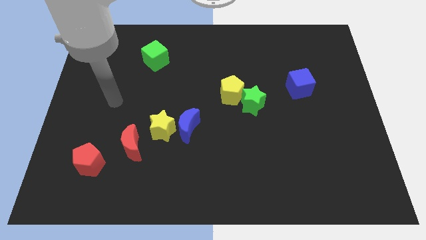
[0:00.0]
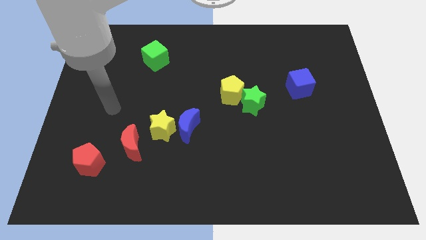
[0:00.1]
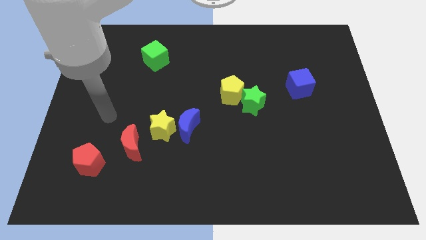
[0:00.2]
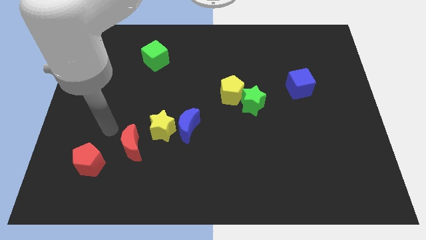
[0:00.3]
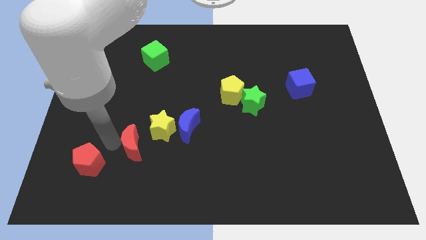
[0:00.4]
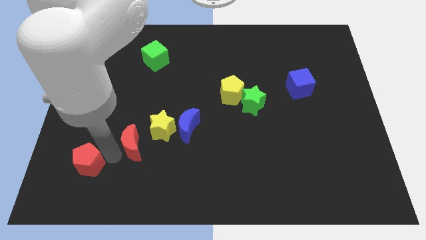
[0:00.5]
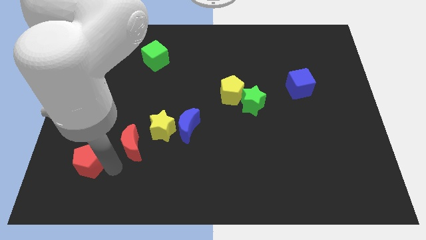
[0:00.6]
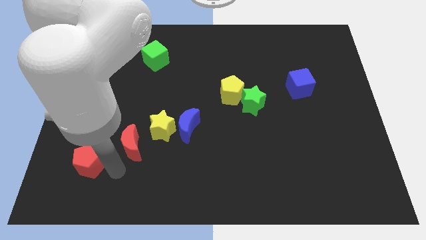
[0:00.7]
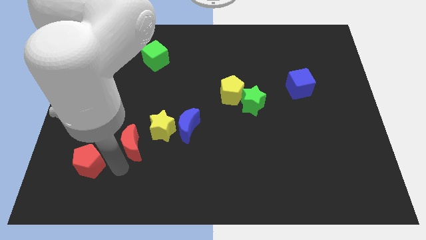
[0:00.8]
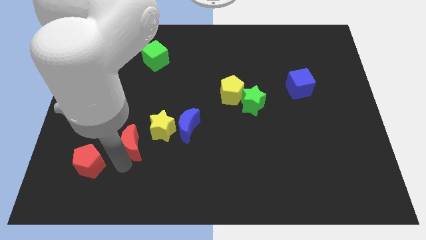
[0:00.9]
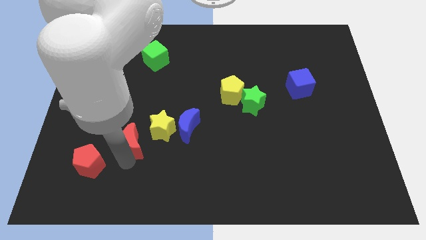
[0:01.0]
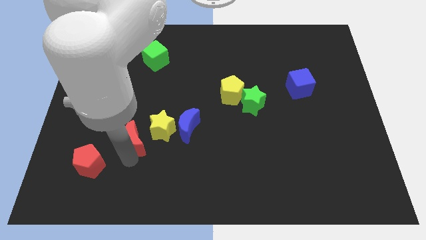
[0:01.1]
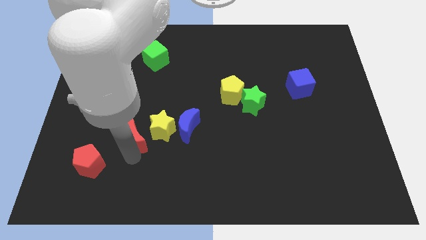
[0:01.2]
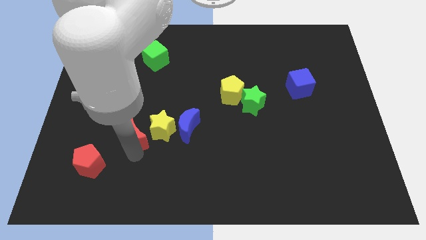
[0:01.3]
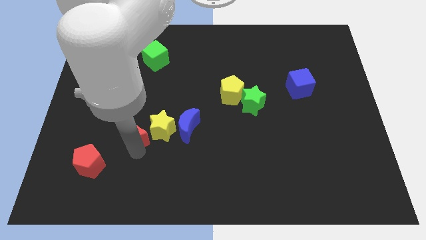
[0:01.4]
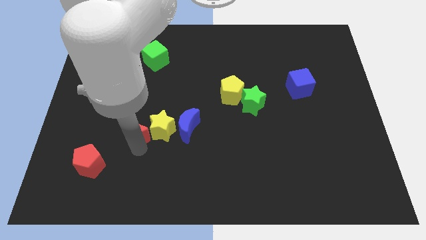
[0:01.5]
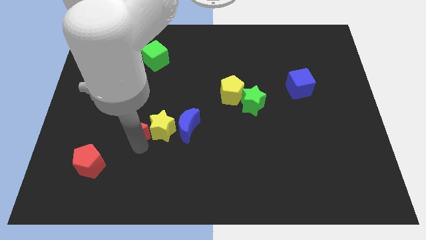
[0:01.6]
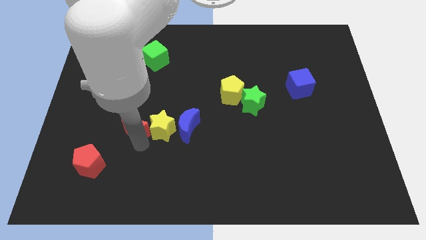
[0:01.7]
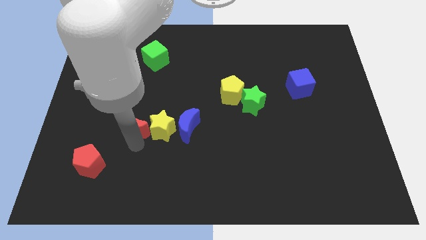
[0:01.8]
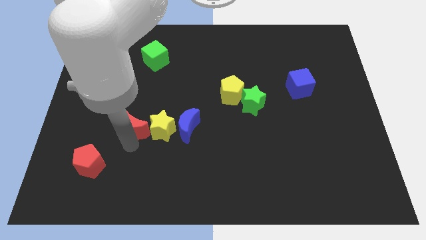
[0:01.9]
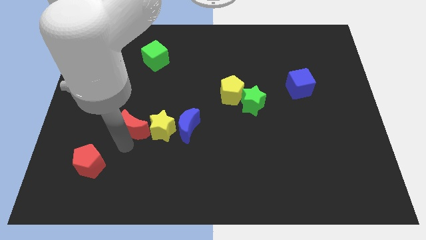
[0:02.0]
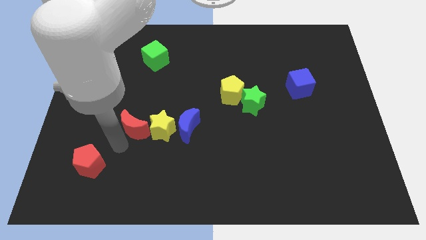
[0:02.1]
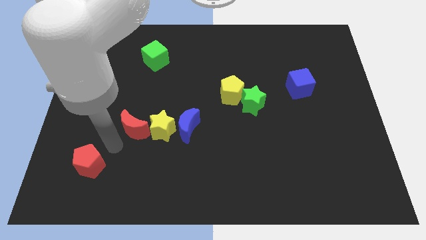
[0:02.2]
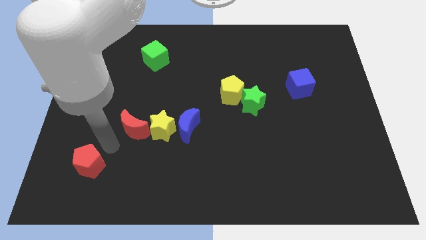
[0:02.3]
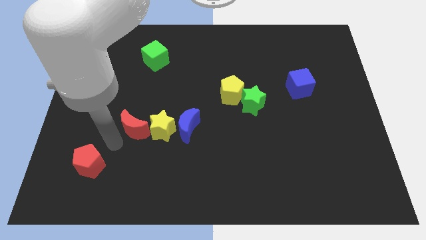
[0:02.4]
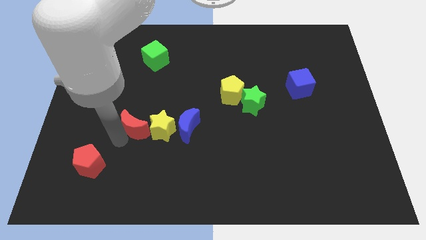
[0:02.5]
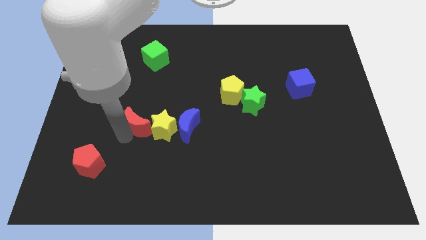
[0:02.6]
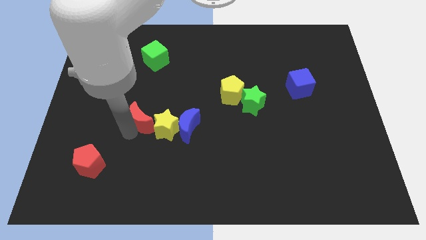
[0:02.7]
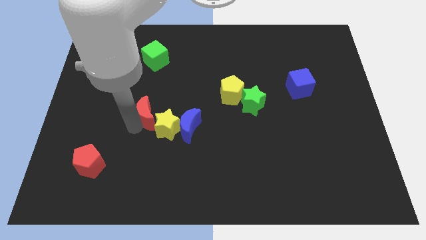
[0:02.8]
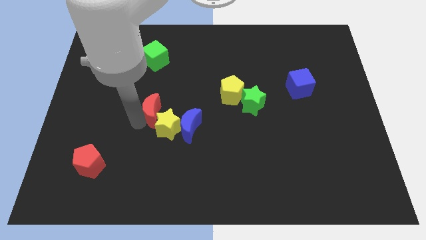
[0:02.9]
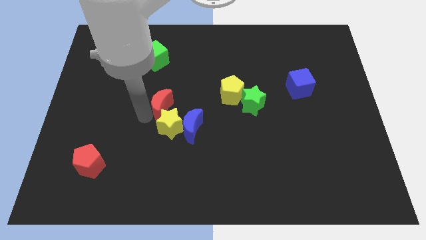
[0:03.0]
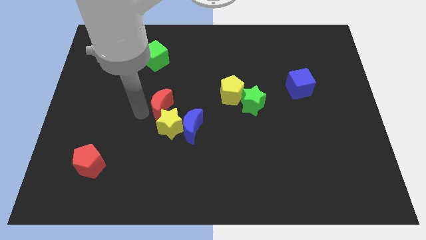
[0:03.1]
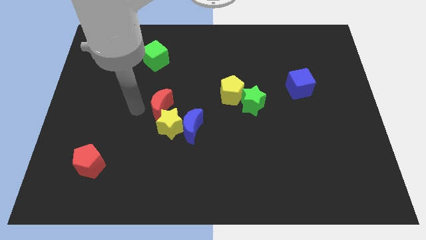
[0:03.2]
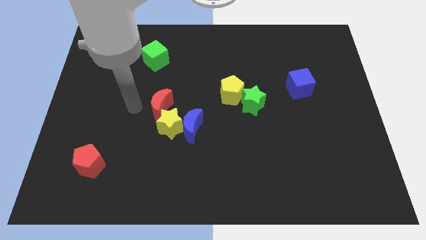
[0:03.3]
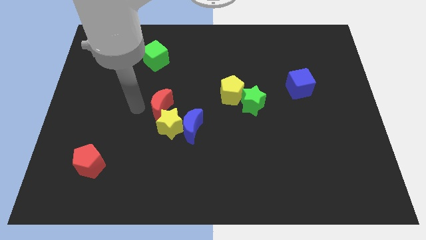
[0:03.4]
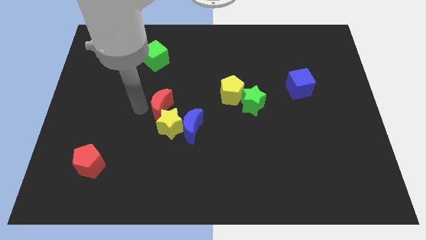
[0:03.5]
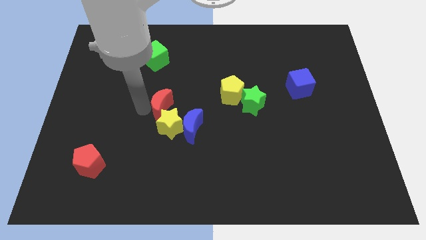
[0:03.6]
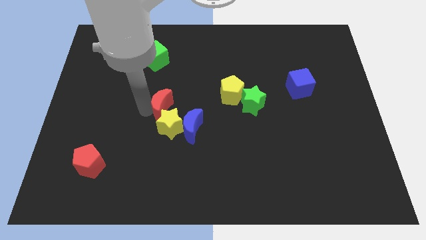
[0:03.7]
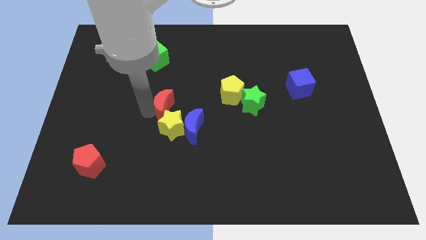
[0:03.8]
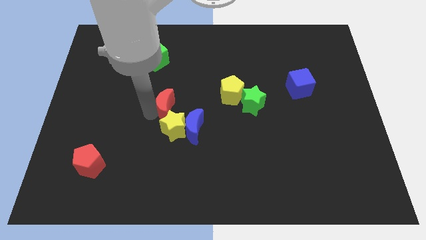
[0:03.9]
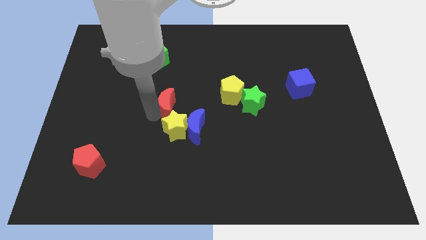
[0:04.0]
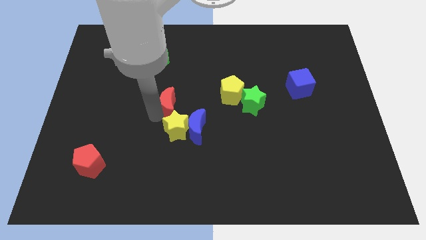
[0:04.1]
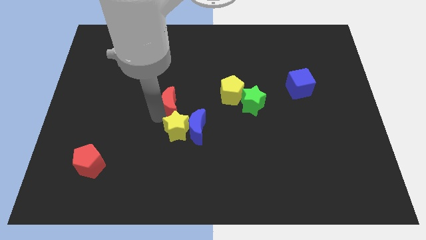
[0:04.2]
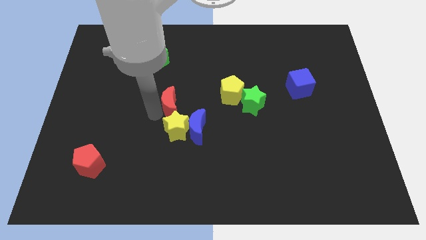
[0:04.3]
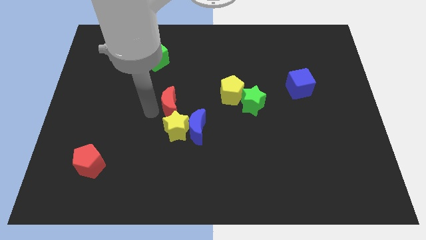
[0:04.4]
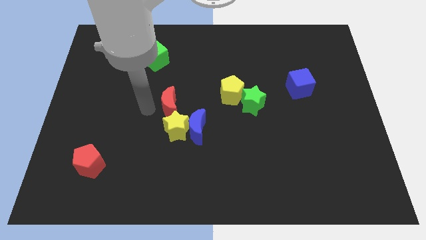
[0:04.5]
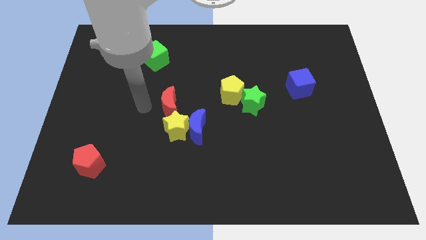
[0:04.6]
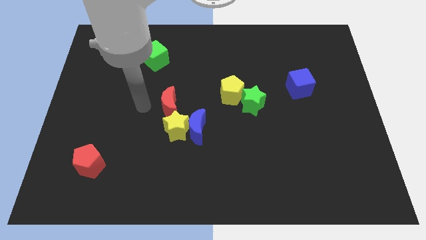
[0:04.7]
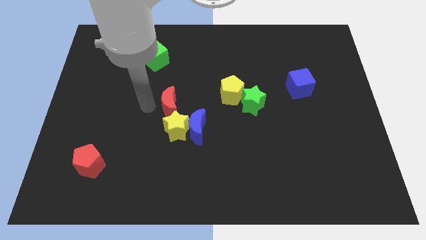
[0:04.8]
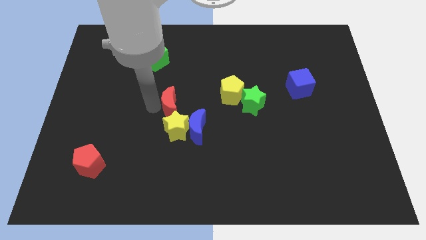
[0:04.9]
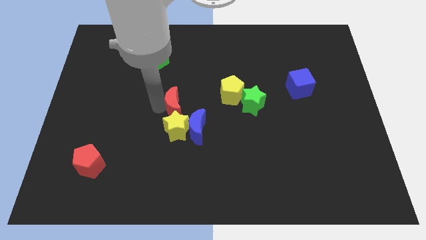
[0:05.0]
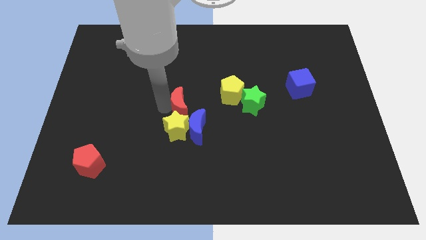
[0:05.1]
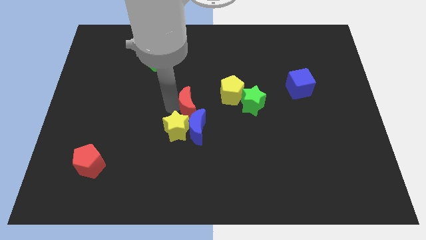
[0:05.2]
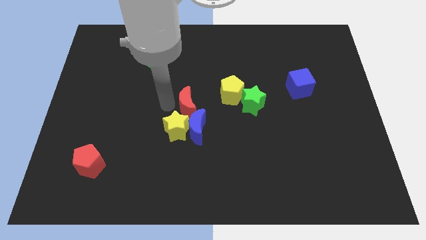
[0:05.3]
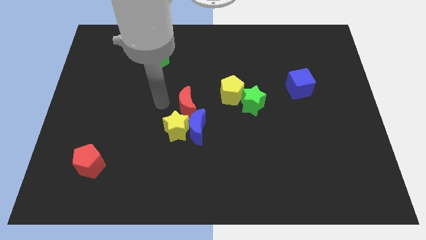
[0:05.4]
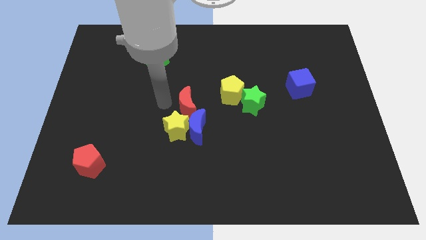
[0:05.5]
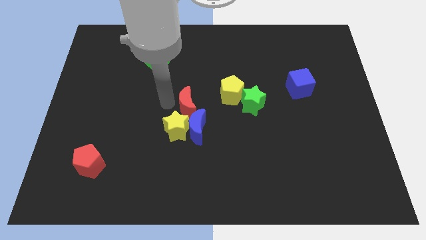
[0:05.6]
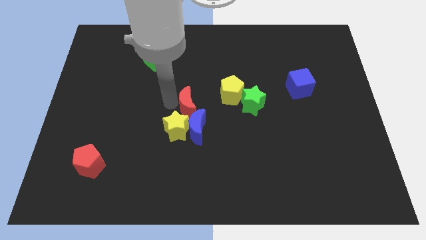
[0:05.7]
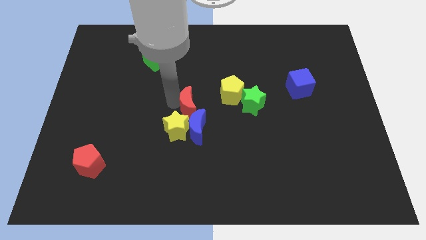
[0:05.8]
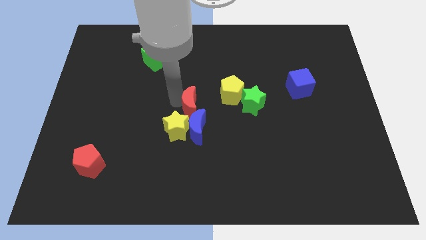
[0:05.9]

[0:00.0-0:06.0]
move the red moon diagonally down and to the left of the yellow pentagon

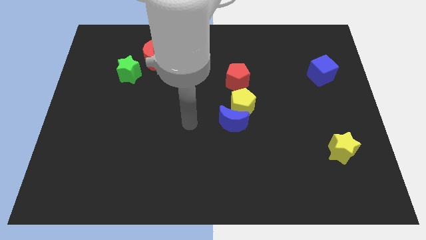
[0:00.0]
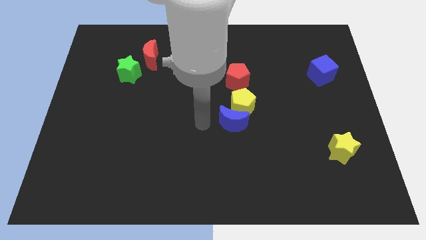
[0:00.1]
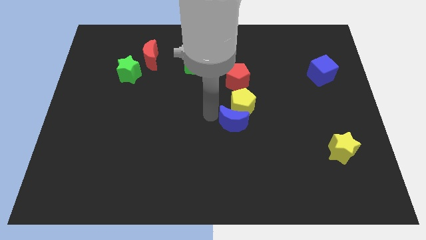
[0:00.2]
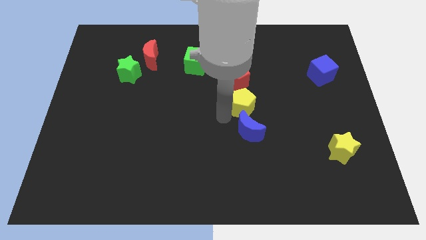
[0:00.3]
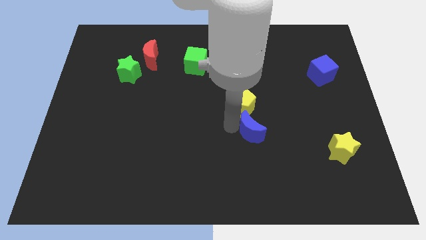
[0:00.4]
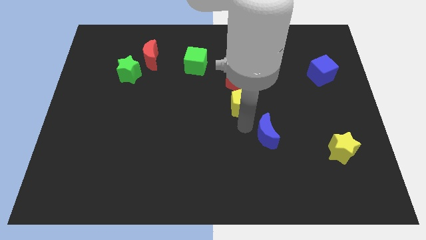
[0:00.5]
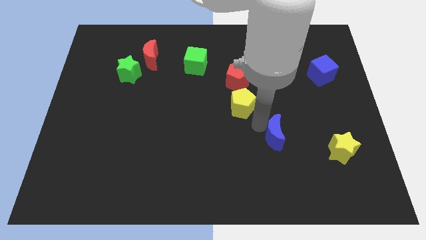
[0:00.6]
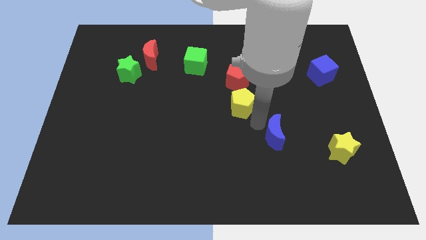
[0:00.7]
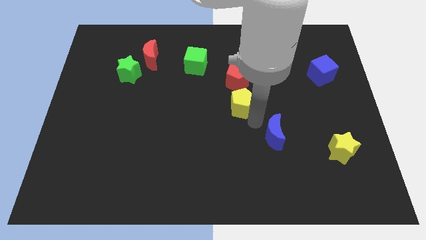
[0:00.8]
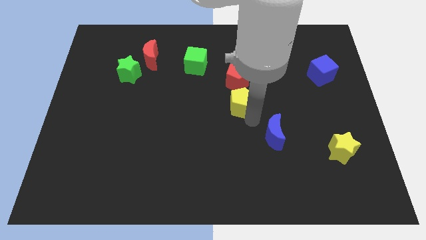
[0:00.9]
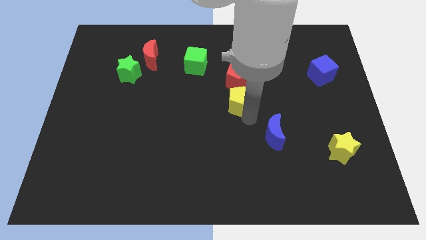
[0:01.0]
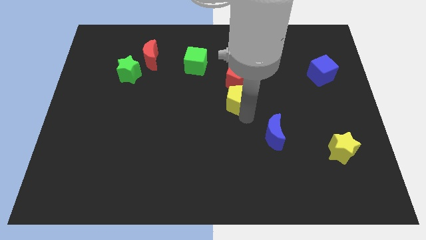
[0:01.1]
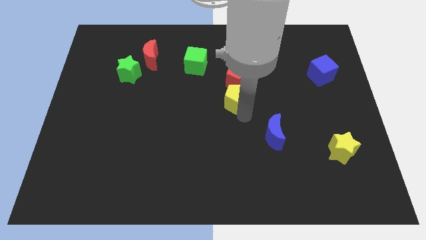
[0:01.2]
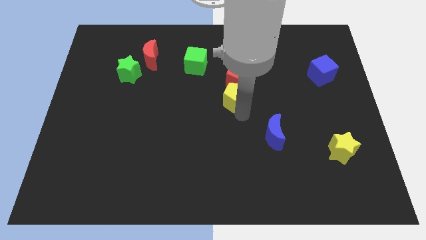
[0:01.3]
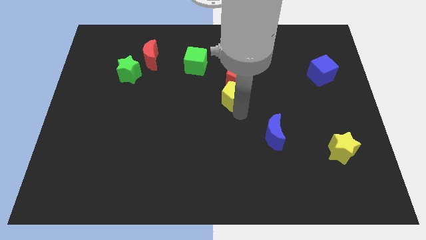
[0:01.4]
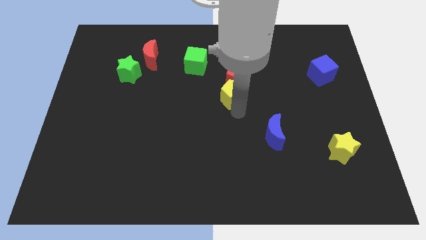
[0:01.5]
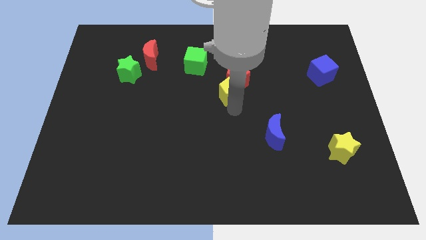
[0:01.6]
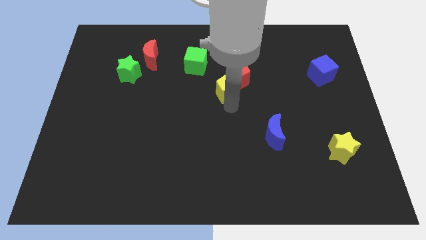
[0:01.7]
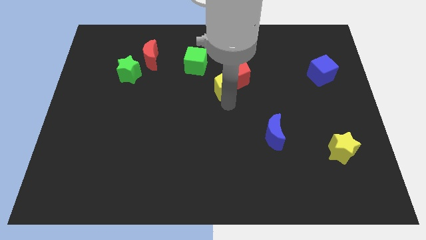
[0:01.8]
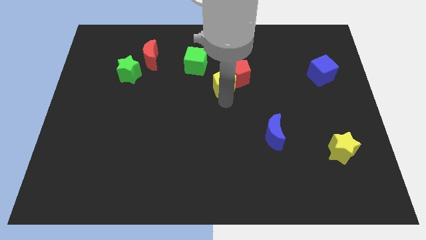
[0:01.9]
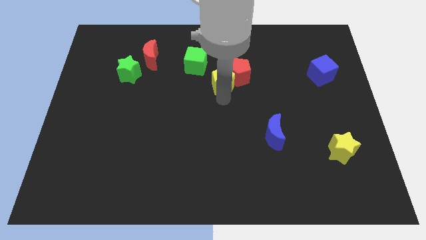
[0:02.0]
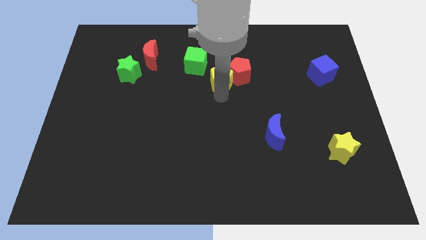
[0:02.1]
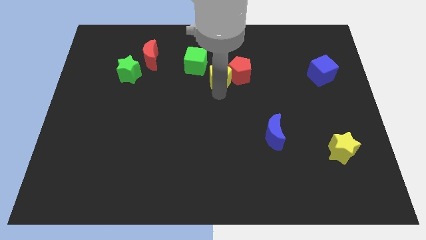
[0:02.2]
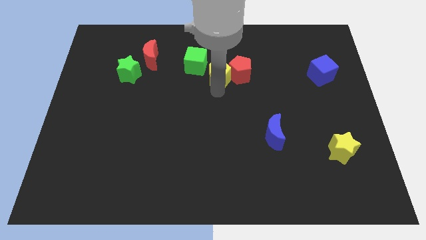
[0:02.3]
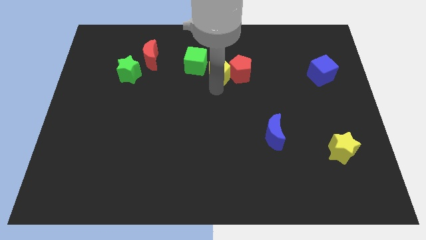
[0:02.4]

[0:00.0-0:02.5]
slide the yellow pentagon to the top left side of the red pentagon
